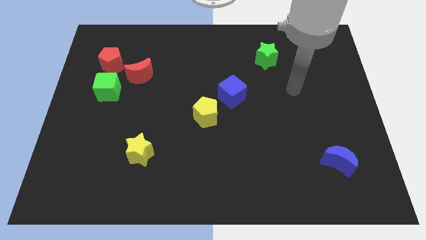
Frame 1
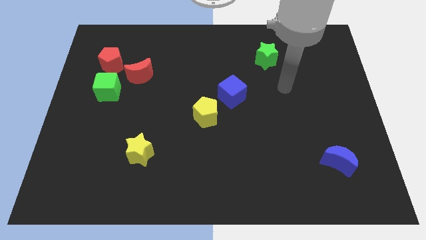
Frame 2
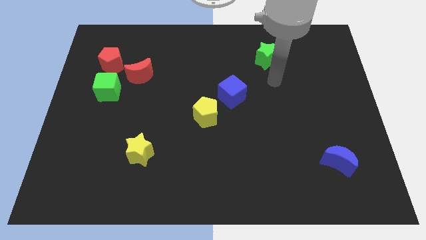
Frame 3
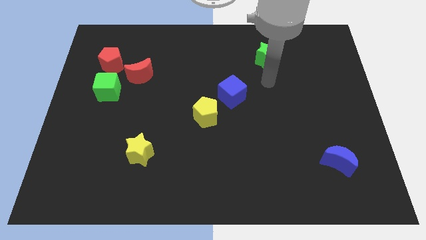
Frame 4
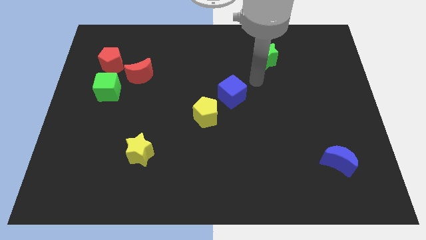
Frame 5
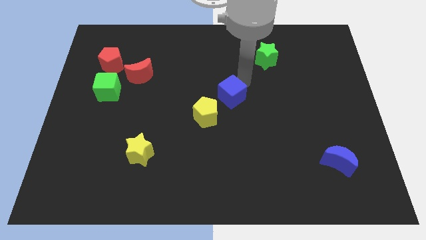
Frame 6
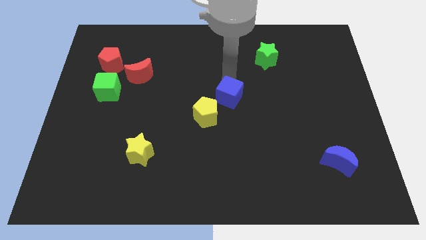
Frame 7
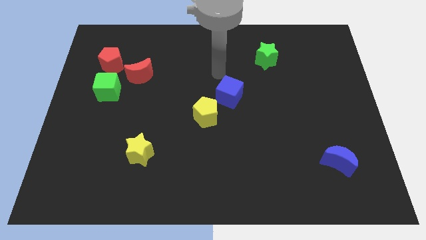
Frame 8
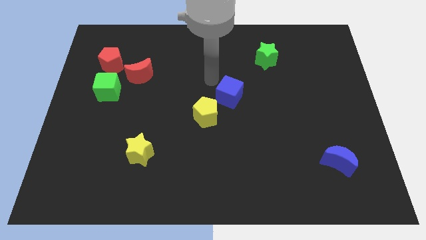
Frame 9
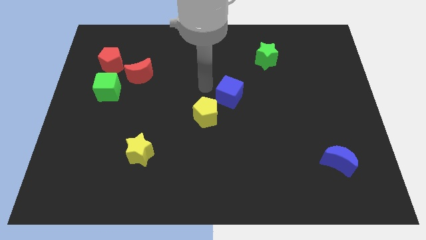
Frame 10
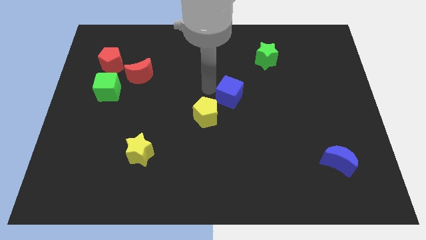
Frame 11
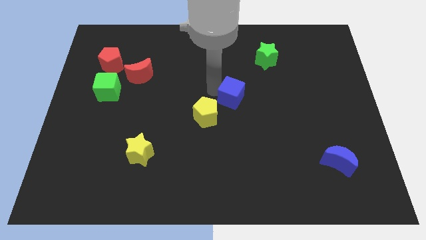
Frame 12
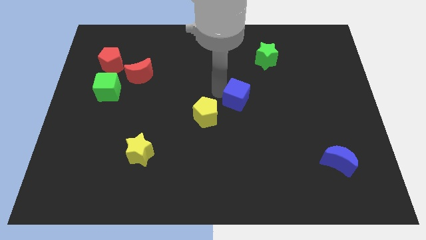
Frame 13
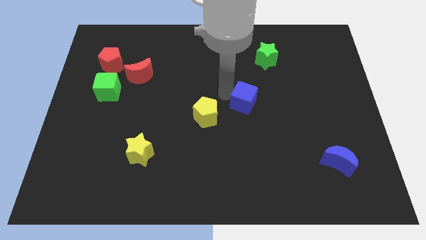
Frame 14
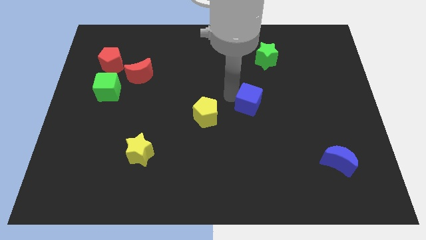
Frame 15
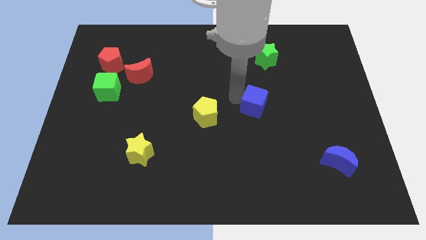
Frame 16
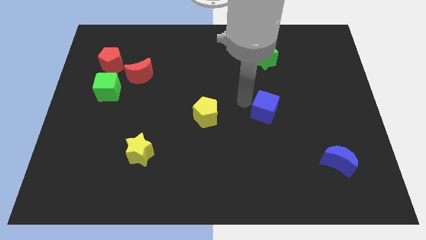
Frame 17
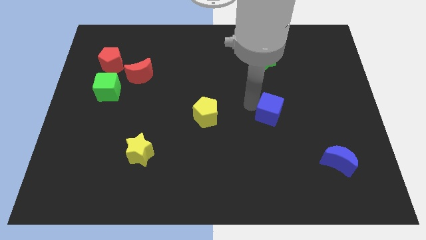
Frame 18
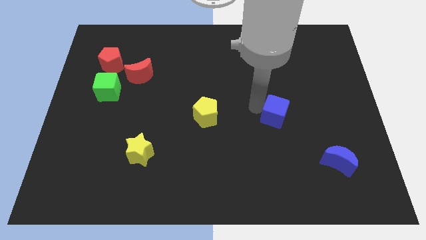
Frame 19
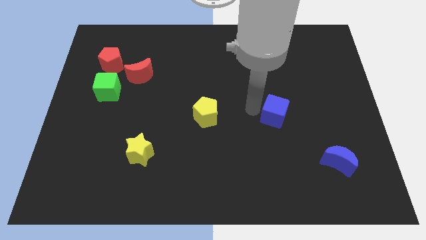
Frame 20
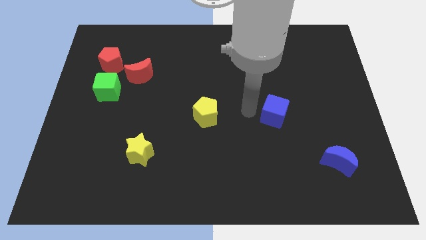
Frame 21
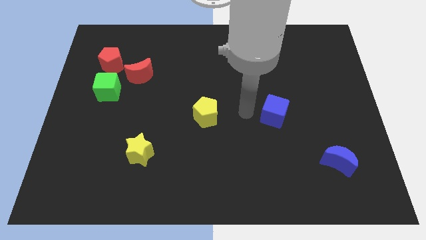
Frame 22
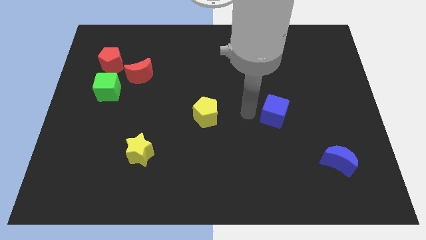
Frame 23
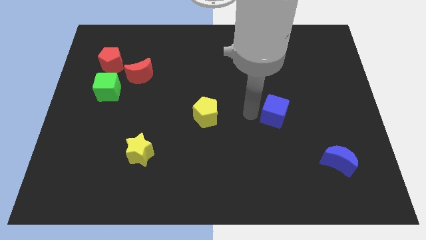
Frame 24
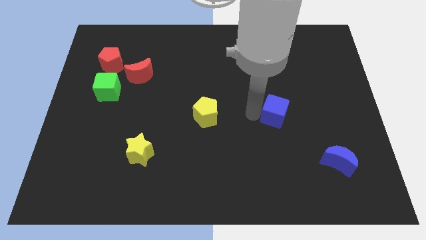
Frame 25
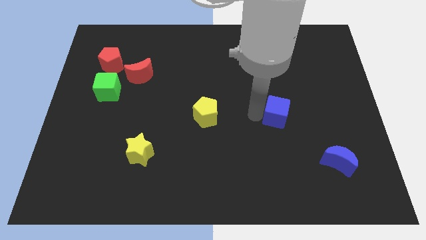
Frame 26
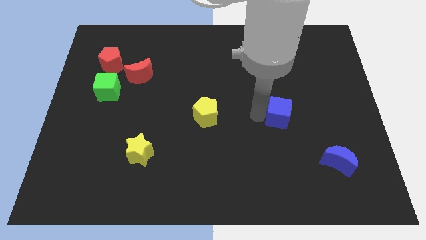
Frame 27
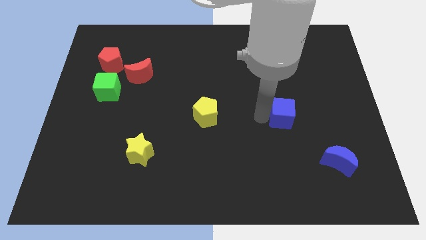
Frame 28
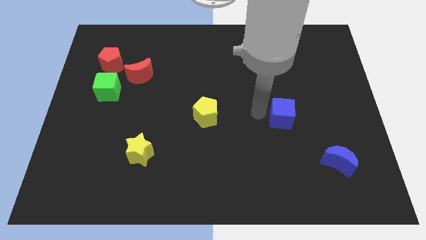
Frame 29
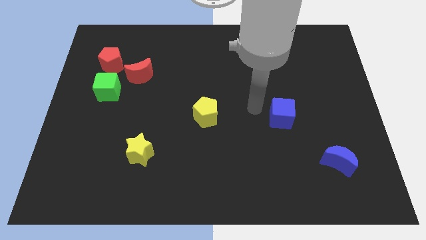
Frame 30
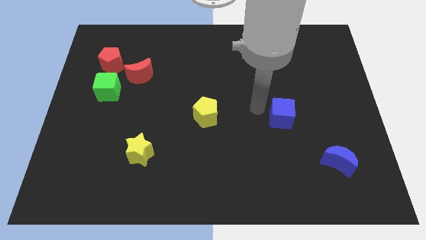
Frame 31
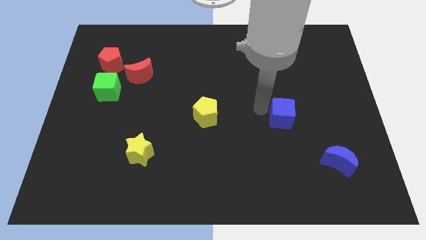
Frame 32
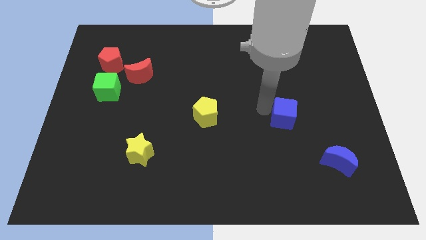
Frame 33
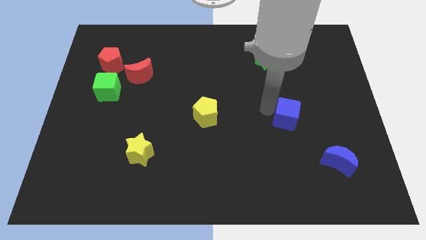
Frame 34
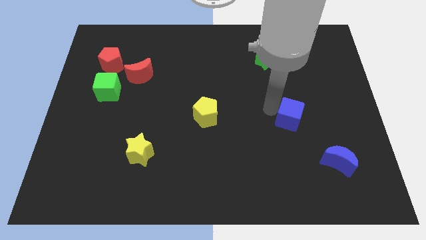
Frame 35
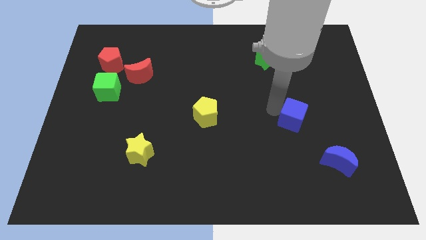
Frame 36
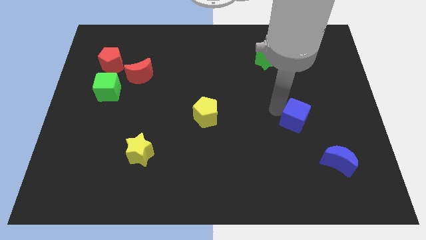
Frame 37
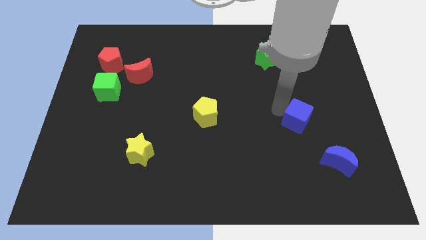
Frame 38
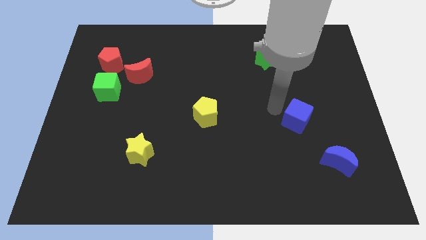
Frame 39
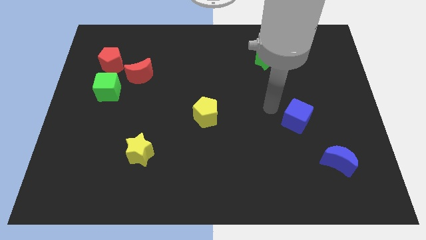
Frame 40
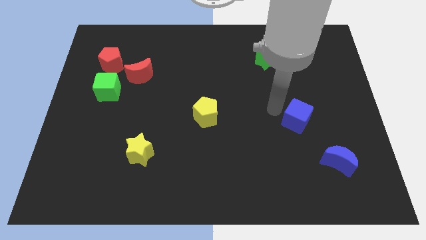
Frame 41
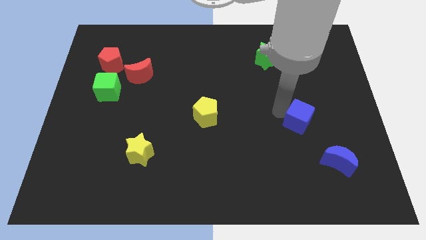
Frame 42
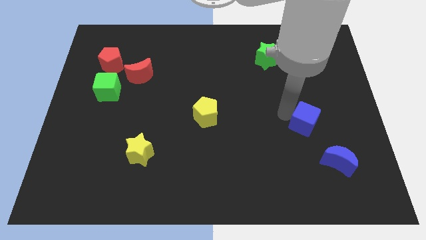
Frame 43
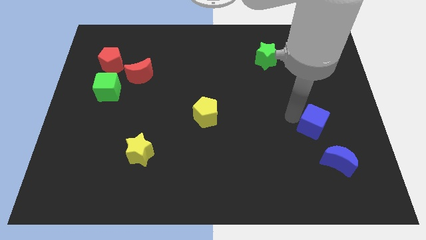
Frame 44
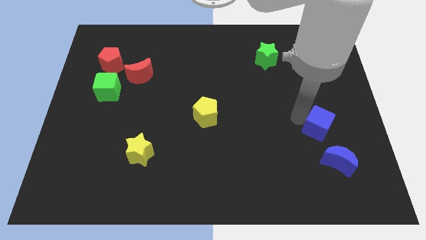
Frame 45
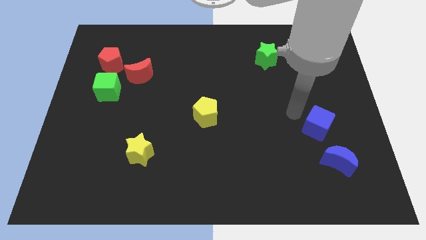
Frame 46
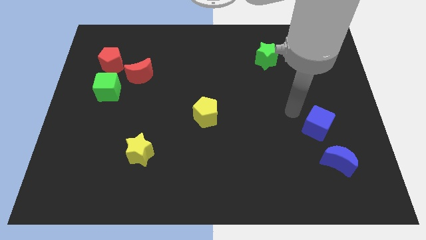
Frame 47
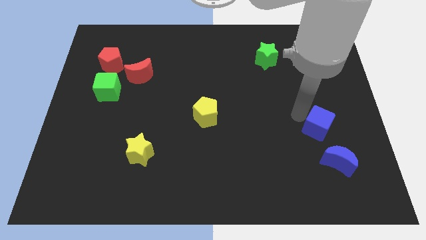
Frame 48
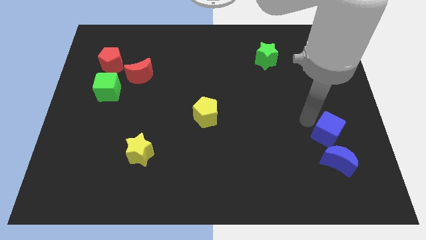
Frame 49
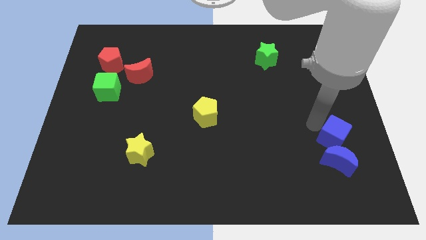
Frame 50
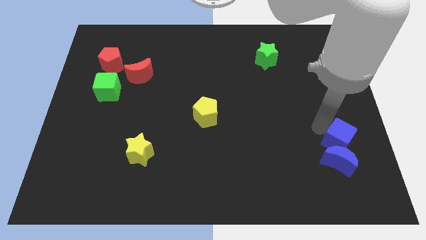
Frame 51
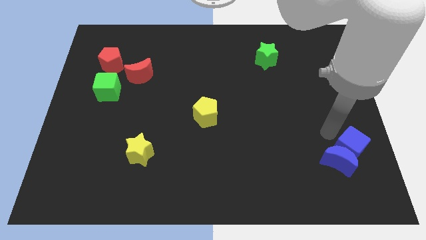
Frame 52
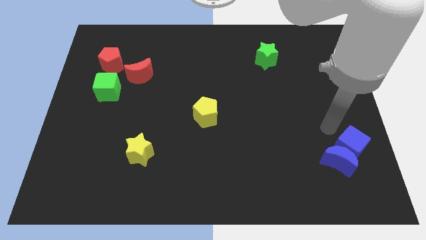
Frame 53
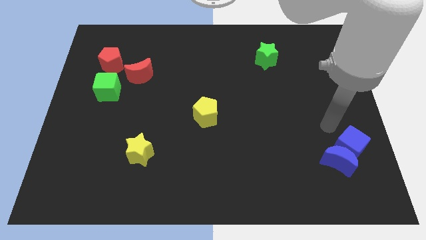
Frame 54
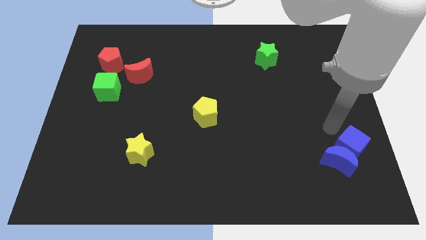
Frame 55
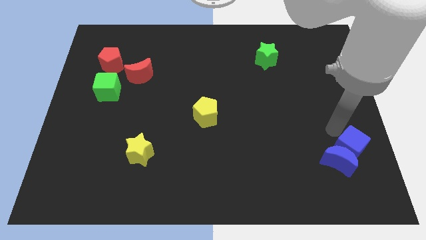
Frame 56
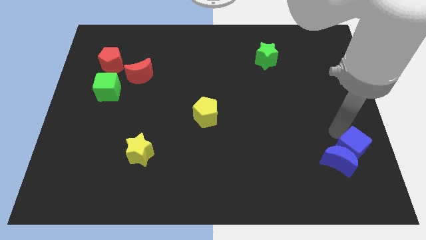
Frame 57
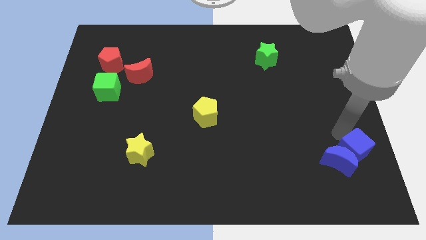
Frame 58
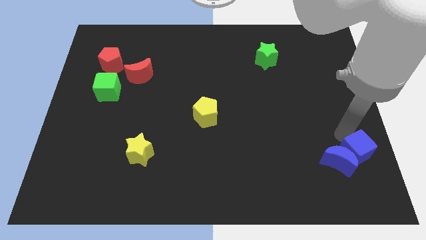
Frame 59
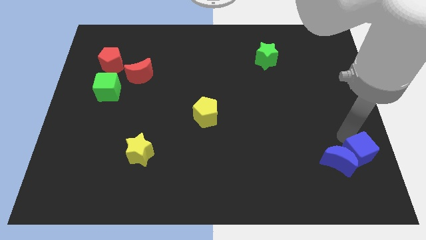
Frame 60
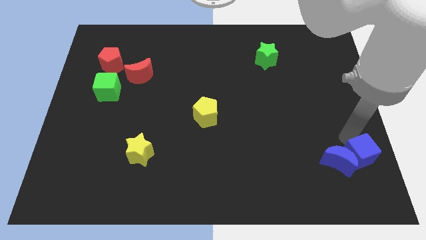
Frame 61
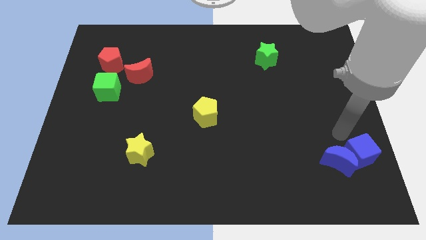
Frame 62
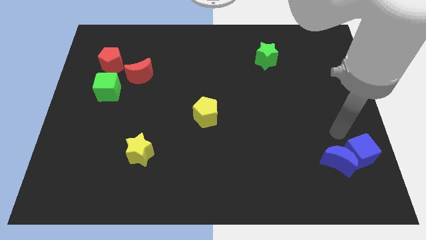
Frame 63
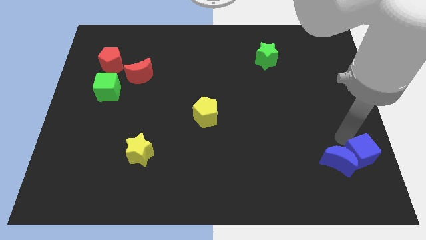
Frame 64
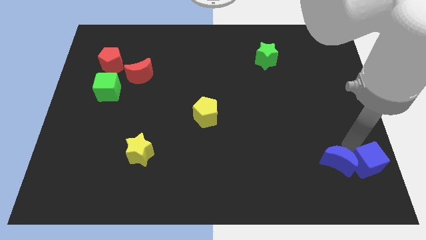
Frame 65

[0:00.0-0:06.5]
push the blue cube to the bottom right

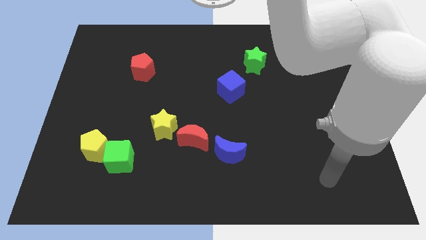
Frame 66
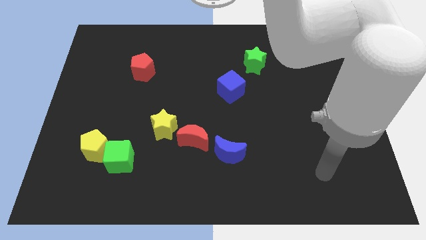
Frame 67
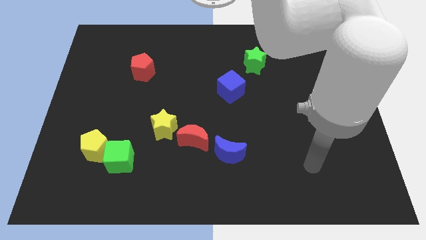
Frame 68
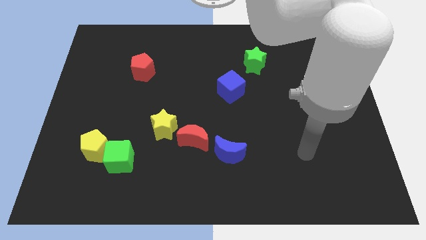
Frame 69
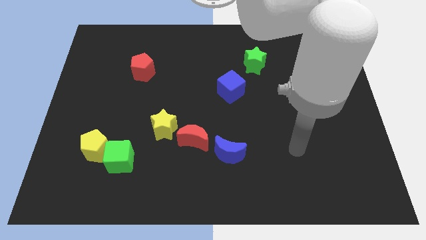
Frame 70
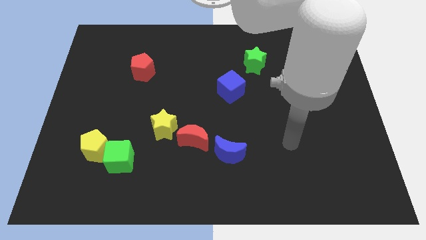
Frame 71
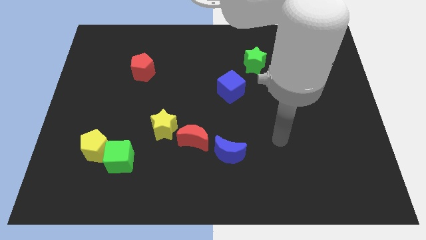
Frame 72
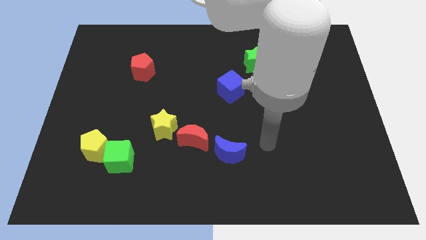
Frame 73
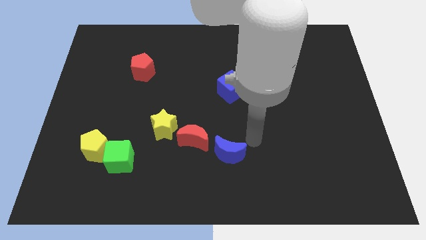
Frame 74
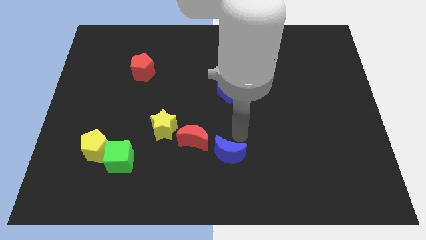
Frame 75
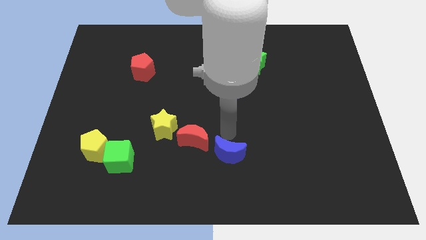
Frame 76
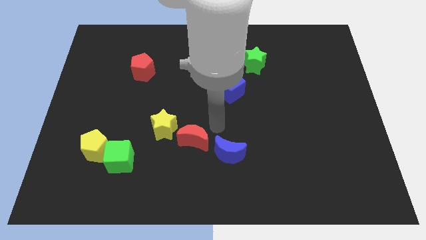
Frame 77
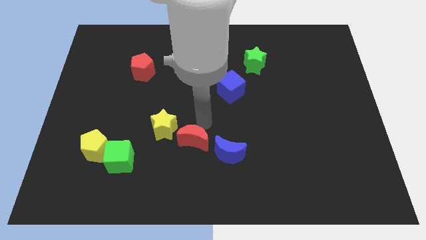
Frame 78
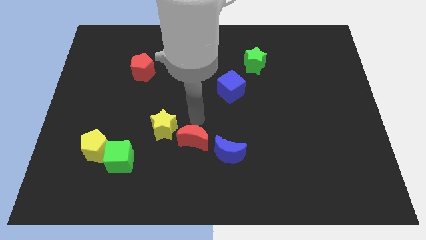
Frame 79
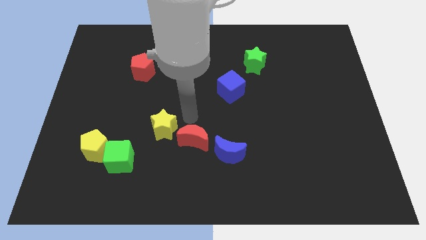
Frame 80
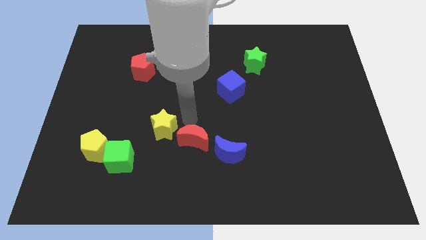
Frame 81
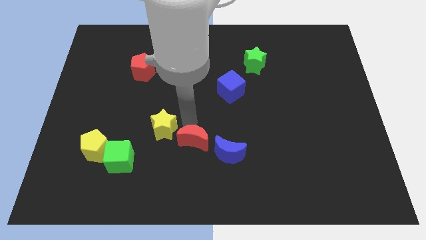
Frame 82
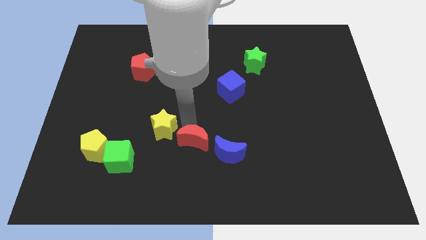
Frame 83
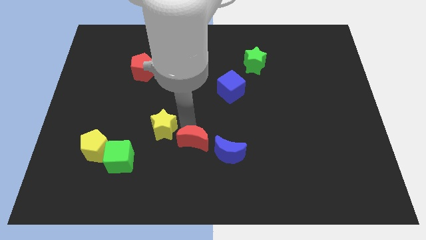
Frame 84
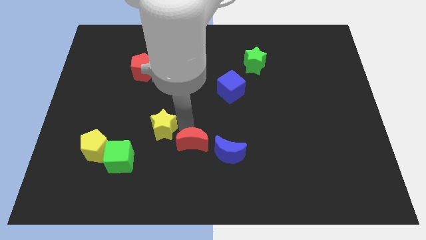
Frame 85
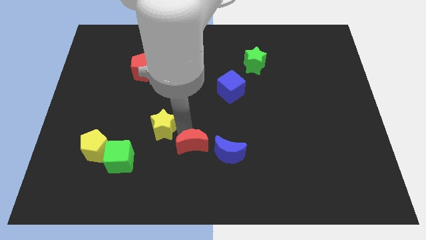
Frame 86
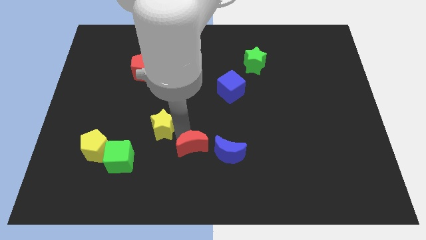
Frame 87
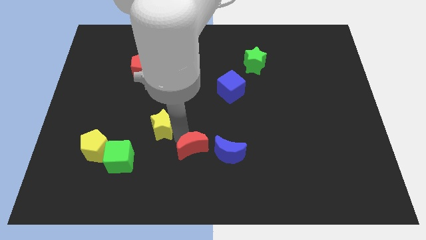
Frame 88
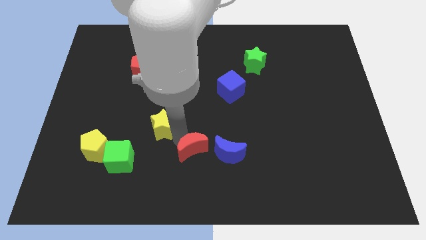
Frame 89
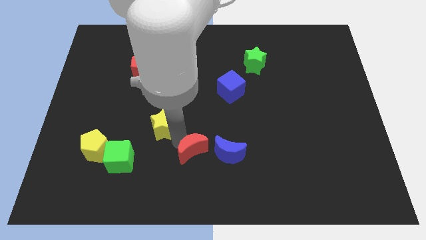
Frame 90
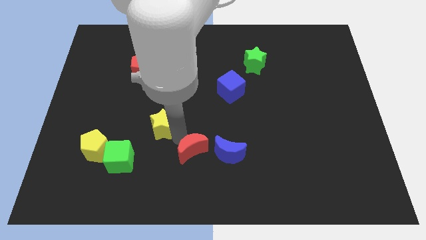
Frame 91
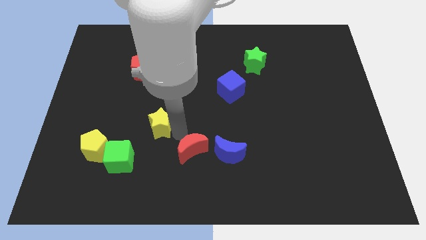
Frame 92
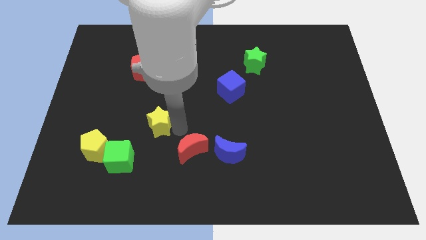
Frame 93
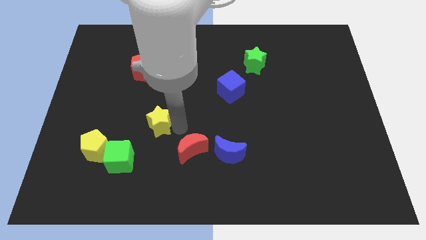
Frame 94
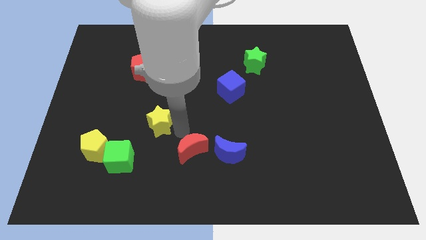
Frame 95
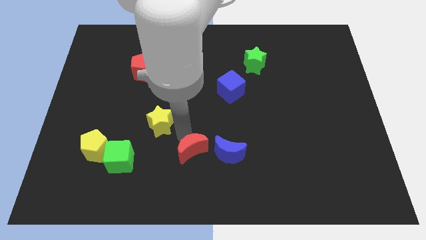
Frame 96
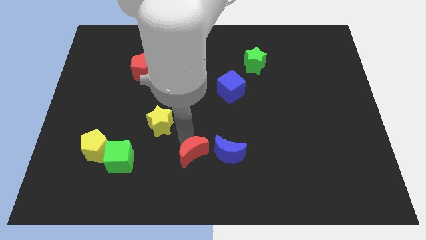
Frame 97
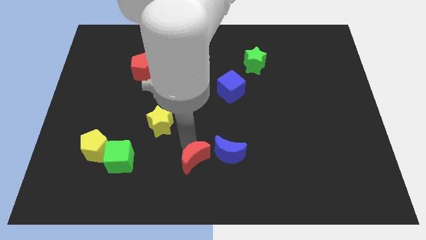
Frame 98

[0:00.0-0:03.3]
push the red moon to the bottom side
